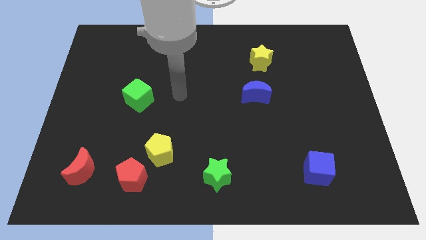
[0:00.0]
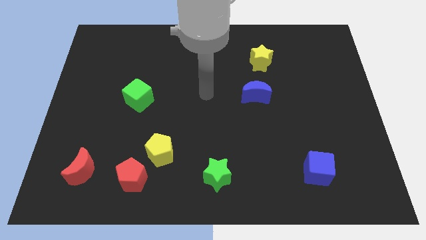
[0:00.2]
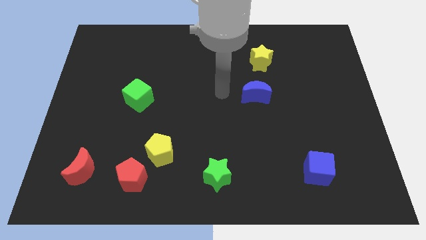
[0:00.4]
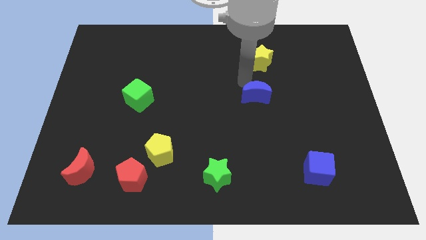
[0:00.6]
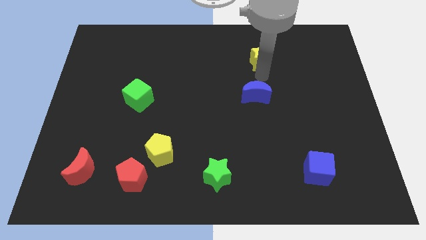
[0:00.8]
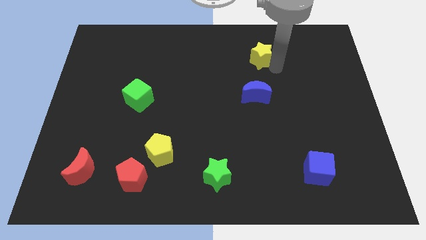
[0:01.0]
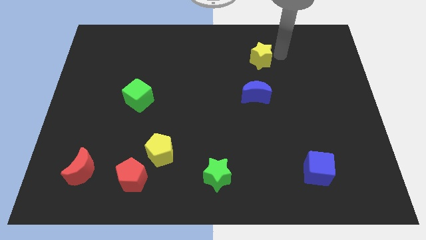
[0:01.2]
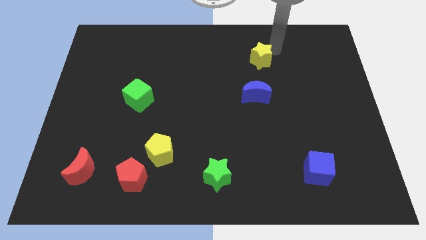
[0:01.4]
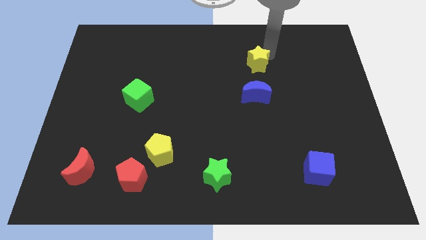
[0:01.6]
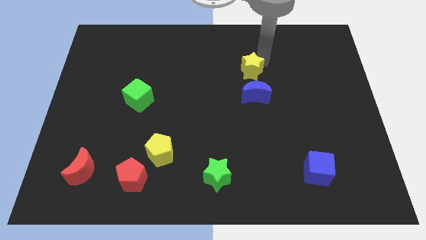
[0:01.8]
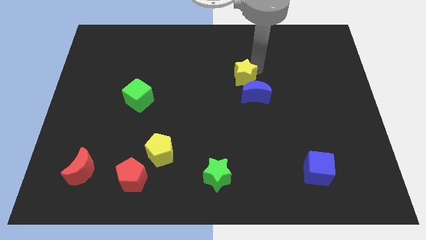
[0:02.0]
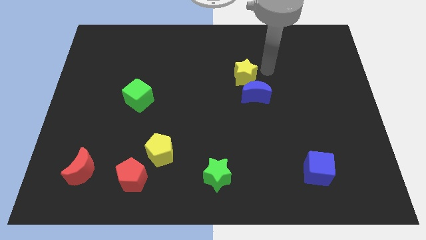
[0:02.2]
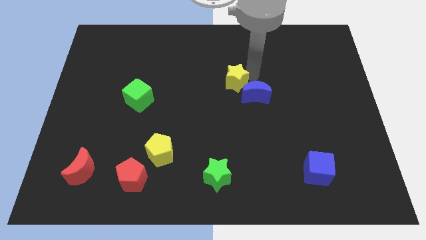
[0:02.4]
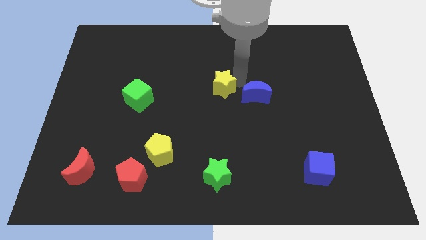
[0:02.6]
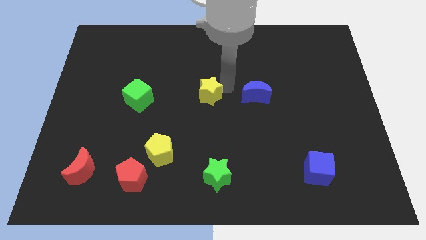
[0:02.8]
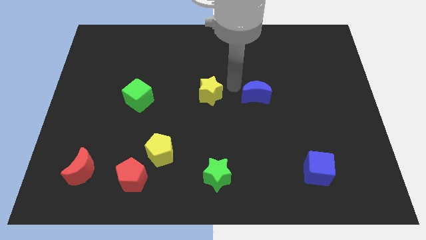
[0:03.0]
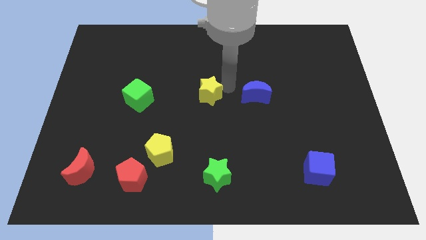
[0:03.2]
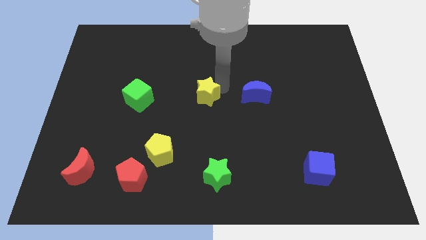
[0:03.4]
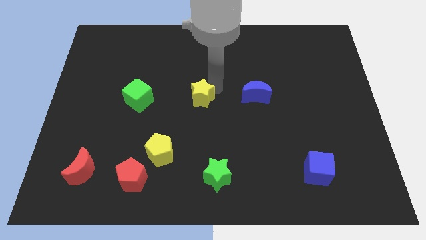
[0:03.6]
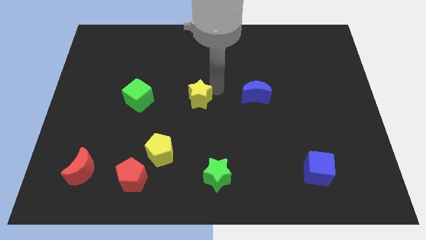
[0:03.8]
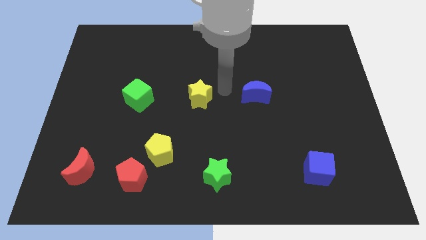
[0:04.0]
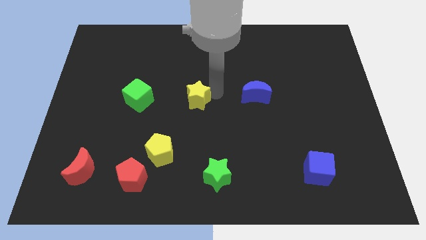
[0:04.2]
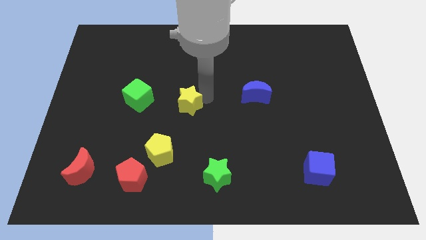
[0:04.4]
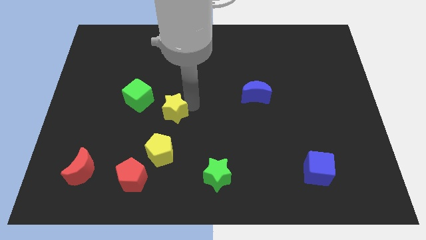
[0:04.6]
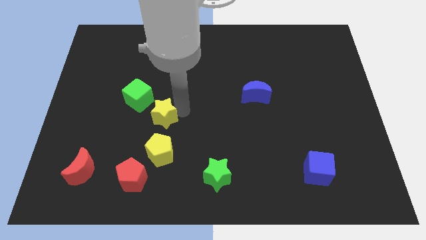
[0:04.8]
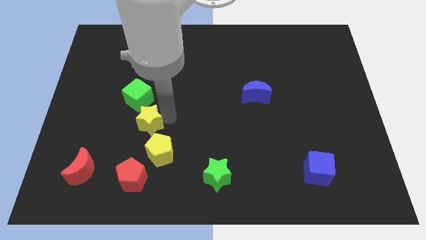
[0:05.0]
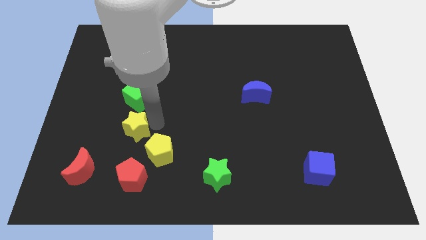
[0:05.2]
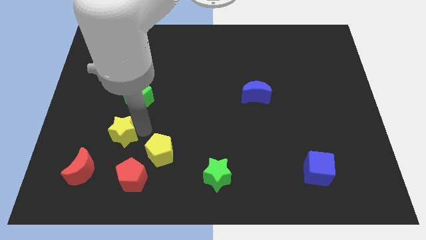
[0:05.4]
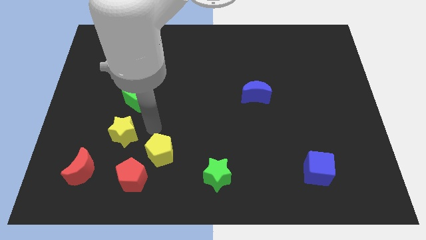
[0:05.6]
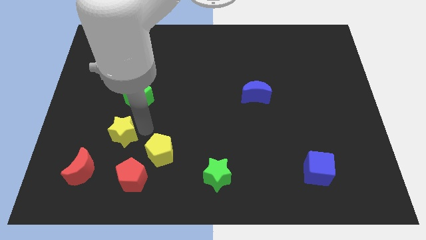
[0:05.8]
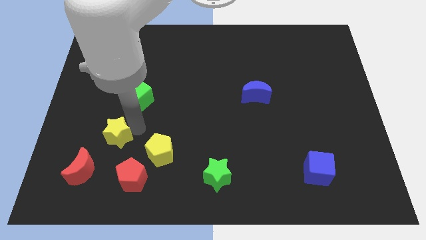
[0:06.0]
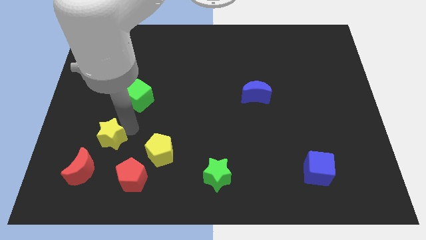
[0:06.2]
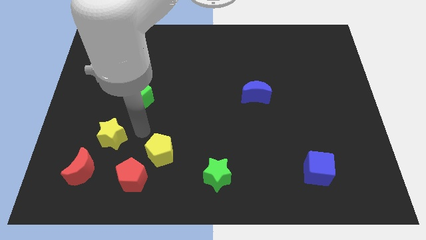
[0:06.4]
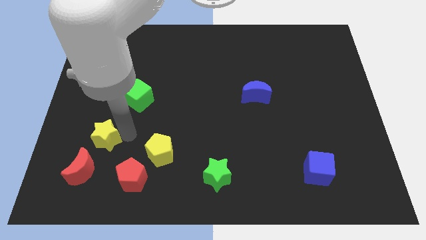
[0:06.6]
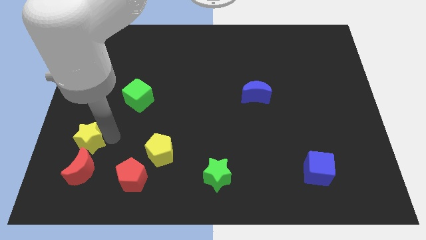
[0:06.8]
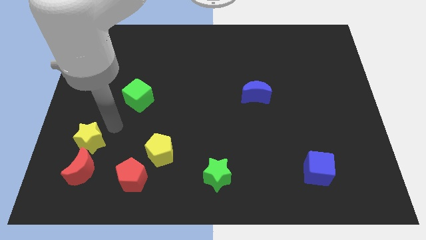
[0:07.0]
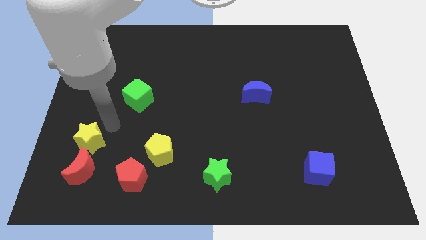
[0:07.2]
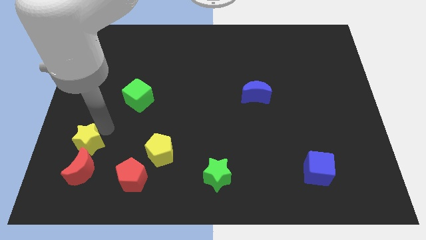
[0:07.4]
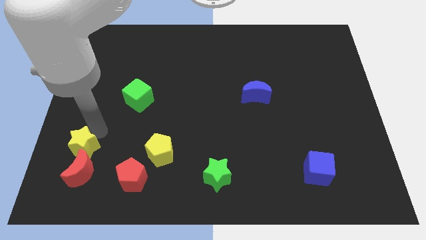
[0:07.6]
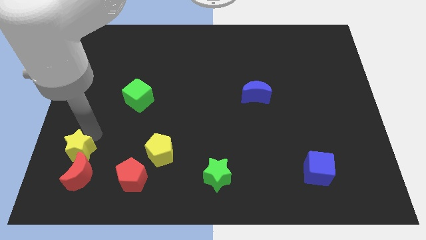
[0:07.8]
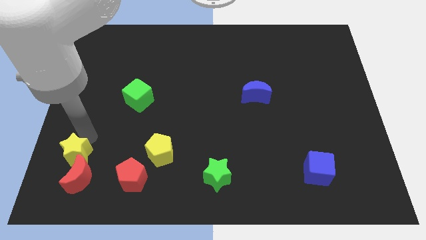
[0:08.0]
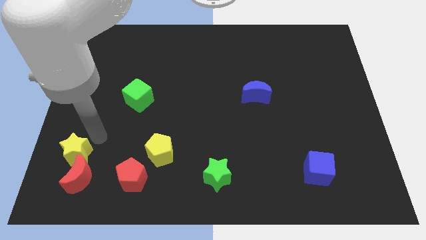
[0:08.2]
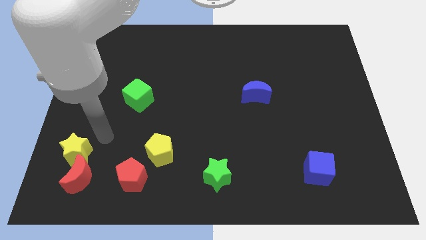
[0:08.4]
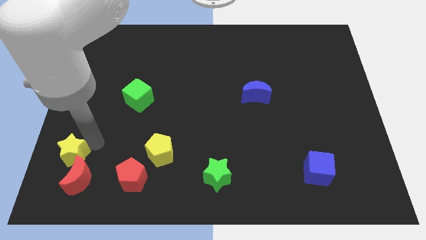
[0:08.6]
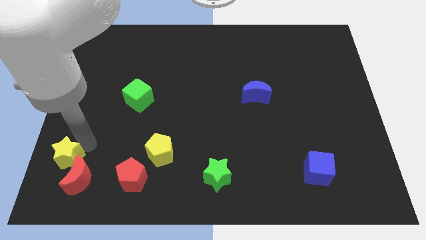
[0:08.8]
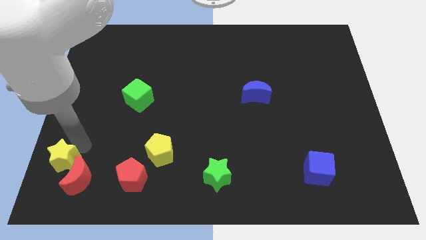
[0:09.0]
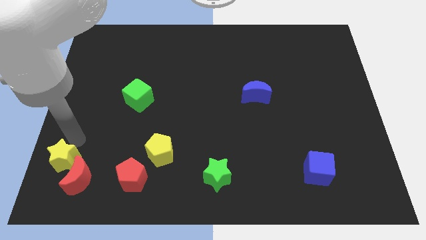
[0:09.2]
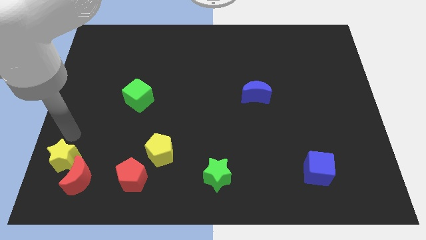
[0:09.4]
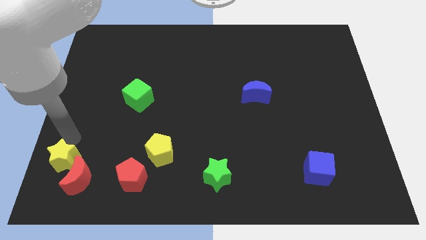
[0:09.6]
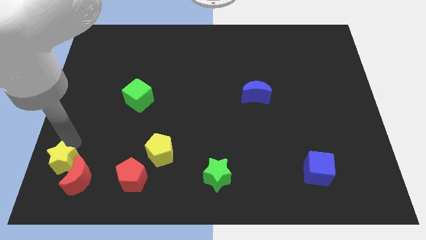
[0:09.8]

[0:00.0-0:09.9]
move the yellow star just left of the red pentagon
